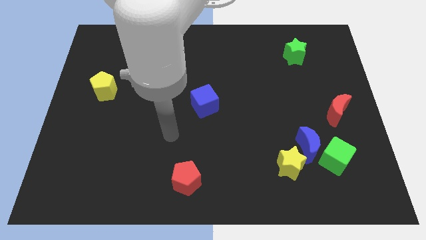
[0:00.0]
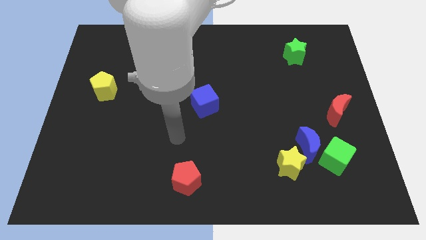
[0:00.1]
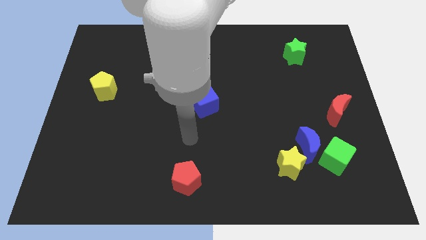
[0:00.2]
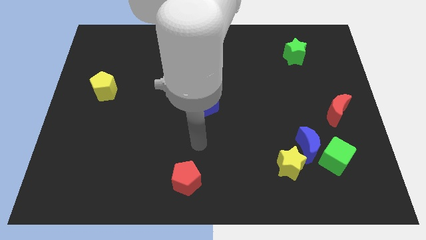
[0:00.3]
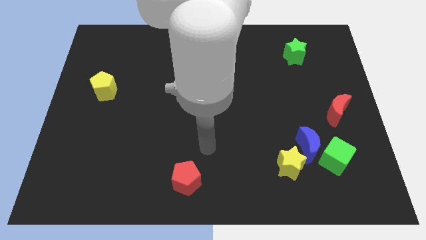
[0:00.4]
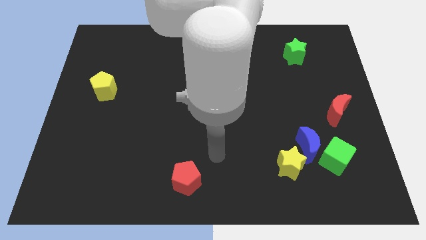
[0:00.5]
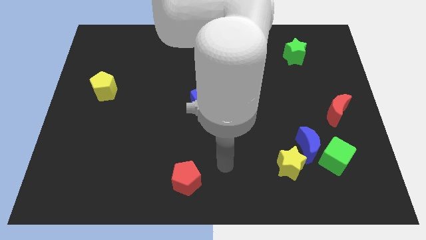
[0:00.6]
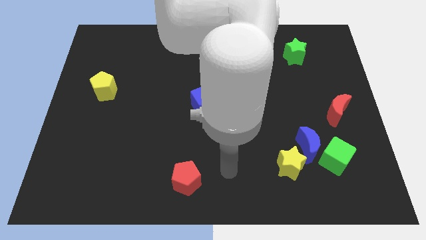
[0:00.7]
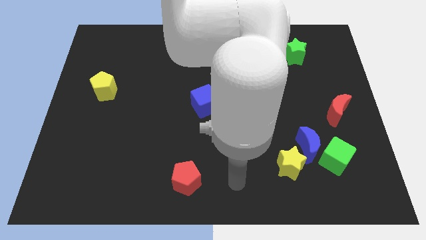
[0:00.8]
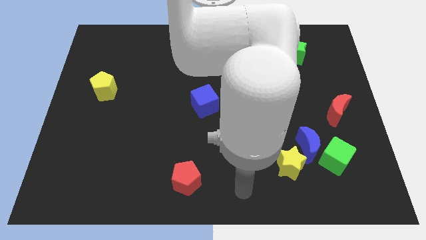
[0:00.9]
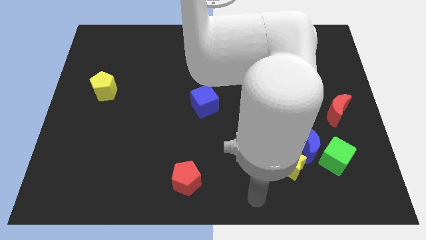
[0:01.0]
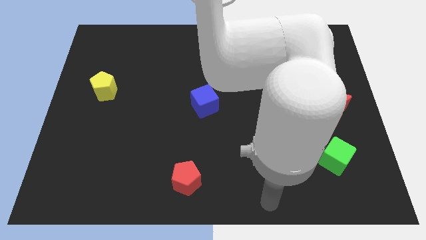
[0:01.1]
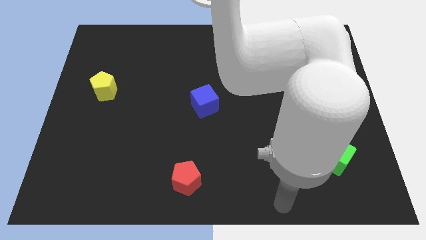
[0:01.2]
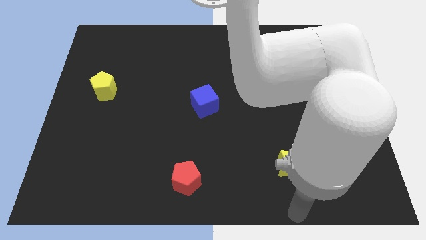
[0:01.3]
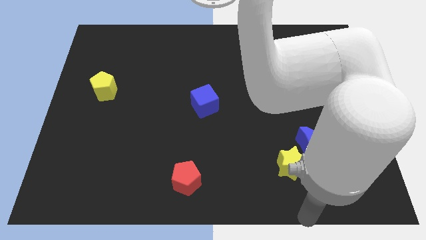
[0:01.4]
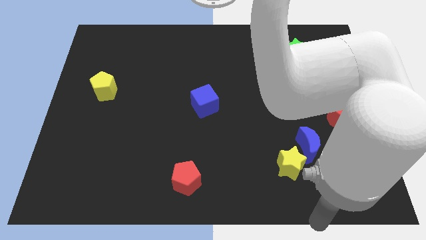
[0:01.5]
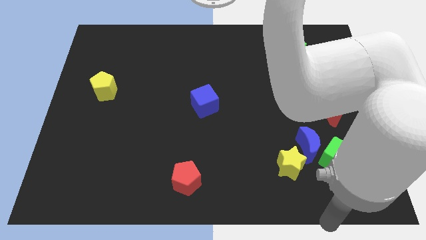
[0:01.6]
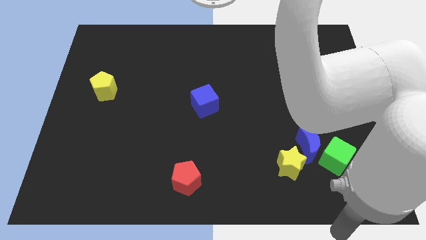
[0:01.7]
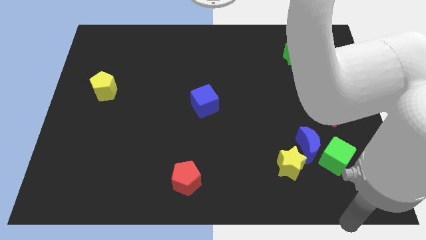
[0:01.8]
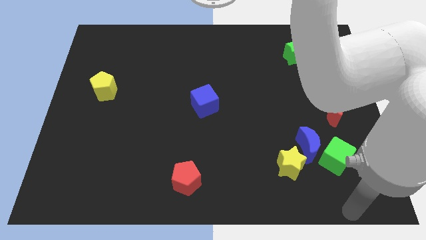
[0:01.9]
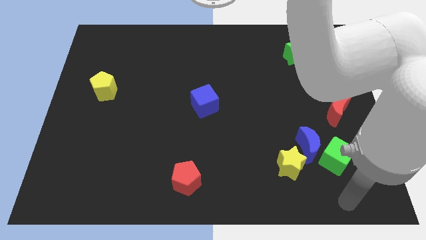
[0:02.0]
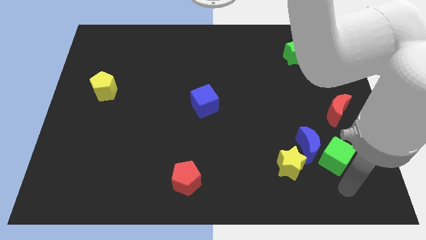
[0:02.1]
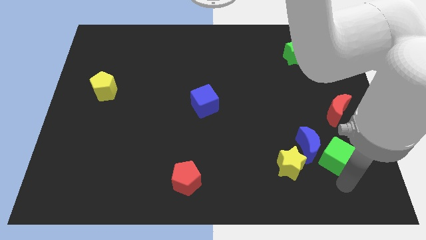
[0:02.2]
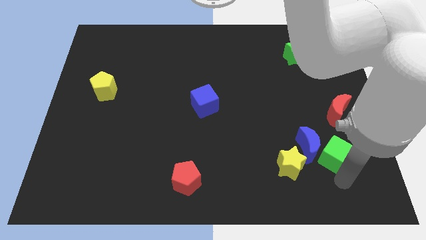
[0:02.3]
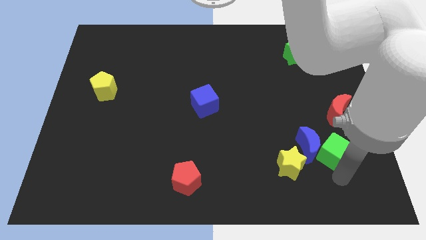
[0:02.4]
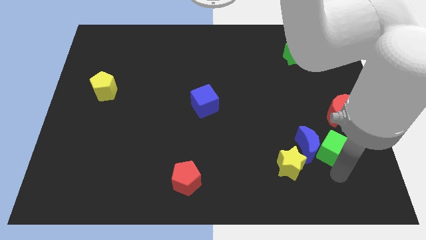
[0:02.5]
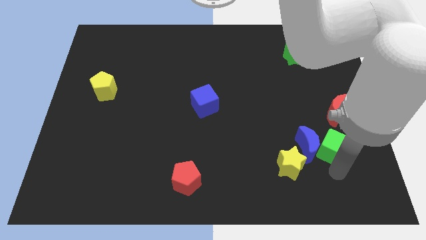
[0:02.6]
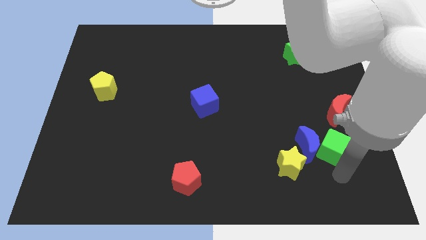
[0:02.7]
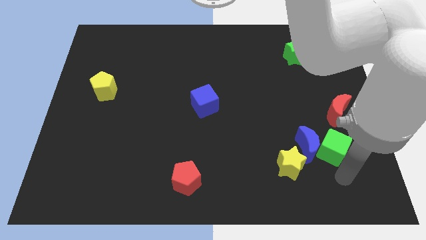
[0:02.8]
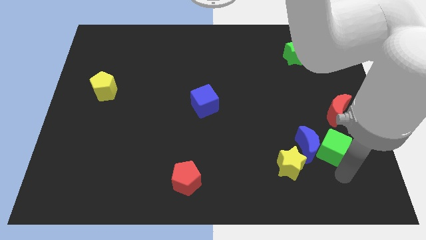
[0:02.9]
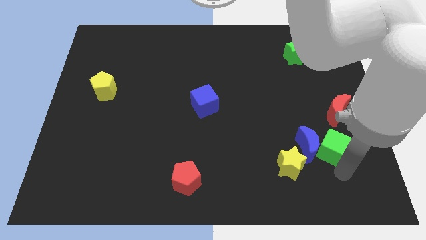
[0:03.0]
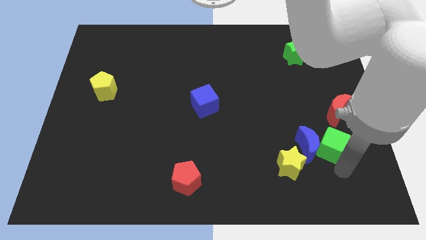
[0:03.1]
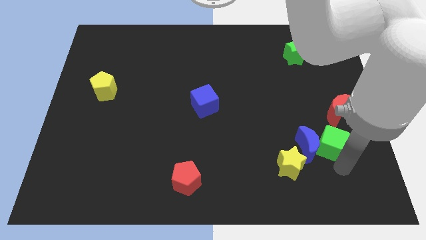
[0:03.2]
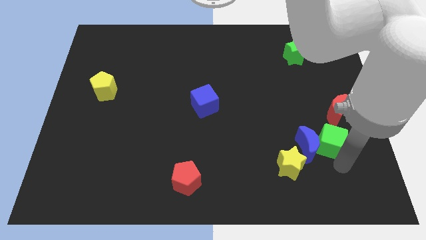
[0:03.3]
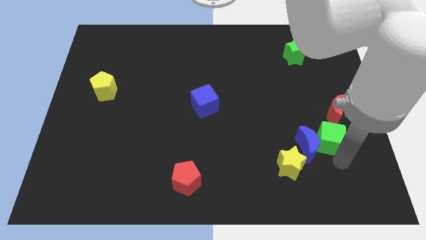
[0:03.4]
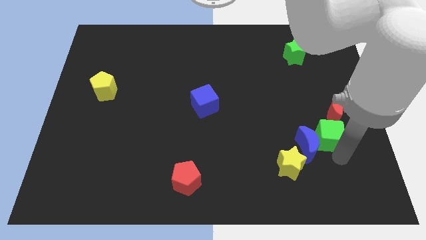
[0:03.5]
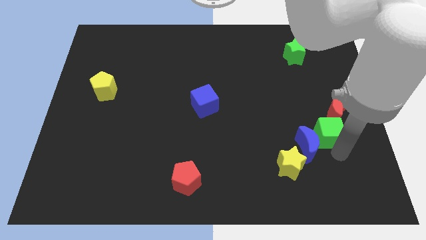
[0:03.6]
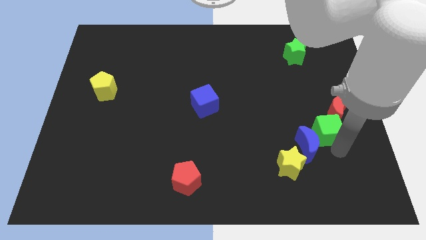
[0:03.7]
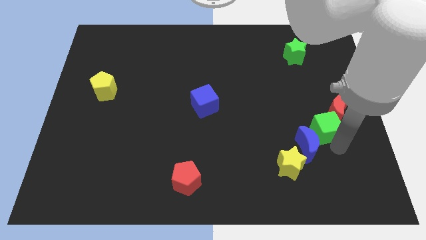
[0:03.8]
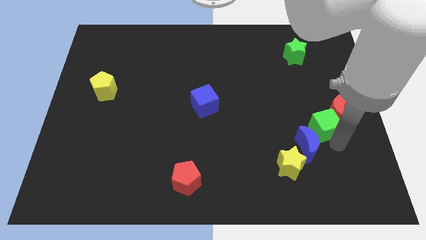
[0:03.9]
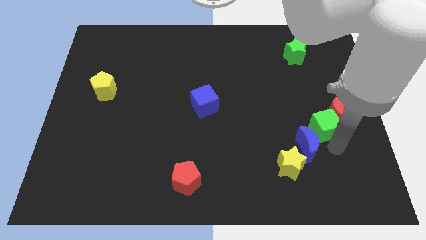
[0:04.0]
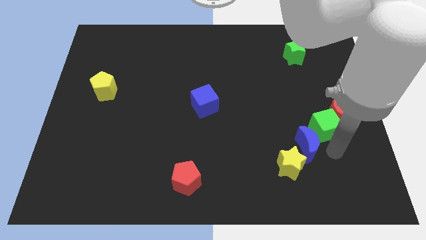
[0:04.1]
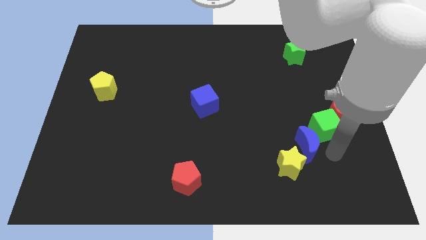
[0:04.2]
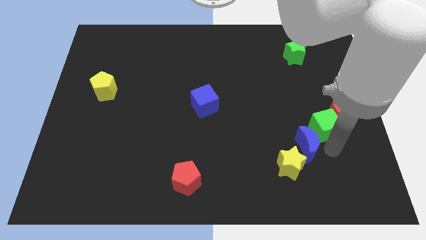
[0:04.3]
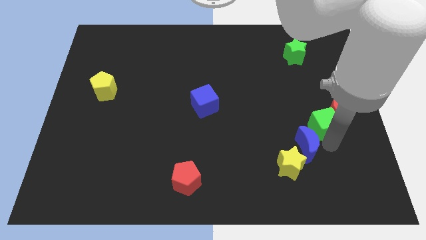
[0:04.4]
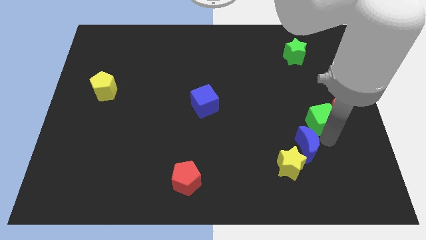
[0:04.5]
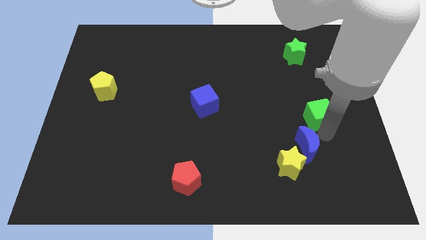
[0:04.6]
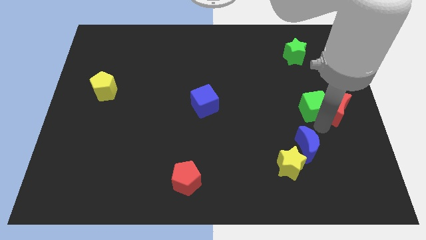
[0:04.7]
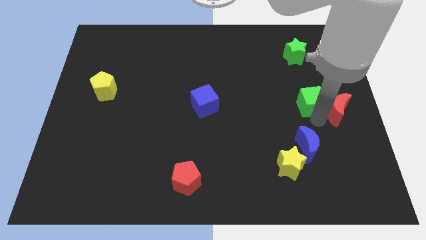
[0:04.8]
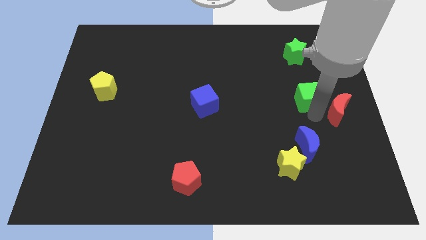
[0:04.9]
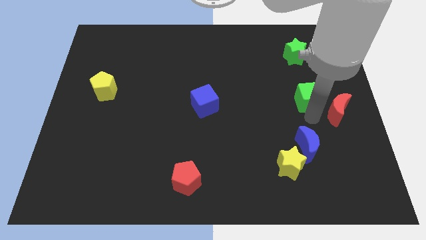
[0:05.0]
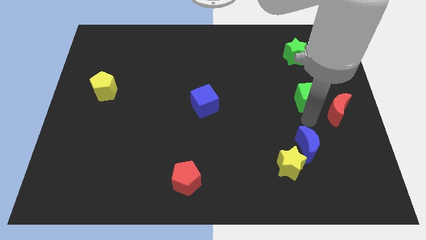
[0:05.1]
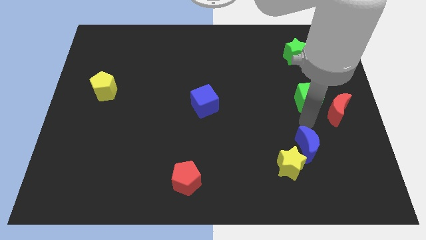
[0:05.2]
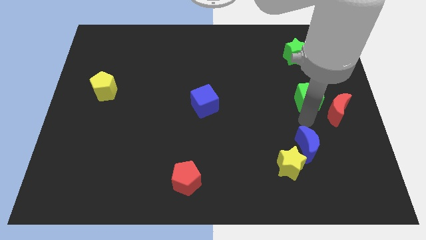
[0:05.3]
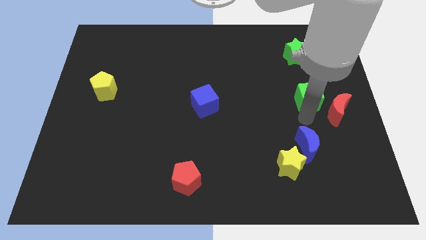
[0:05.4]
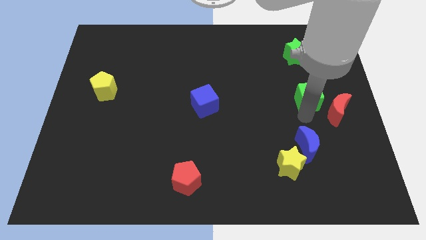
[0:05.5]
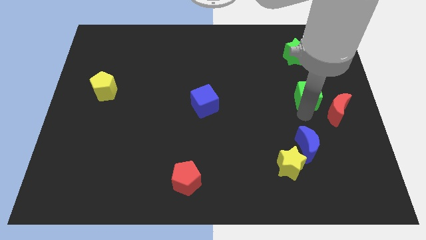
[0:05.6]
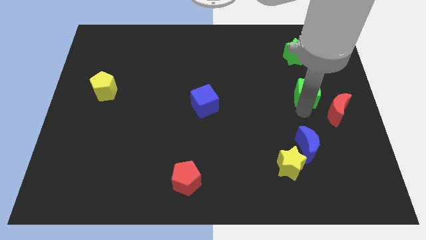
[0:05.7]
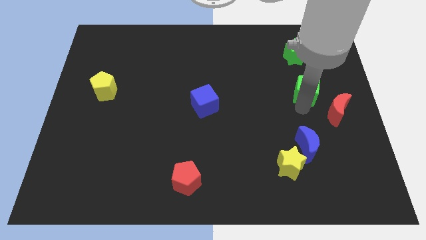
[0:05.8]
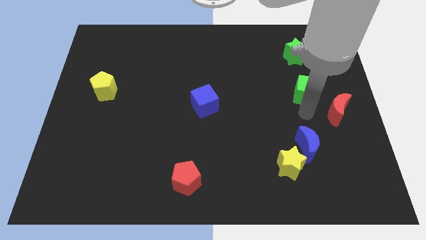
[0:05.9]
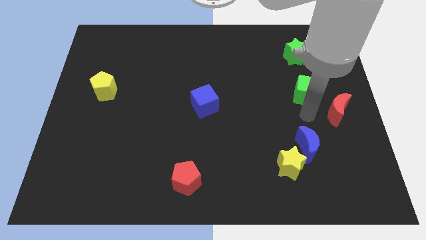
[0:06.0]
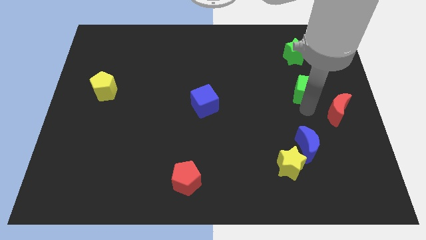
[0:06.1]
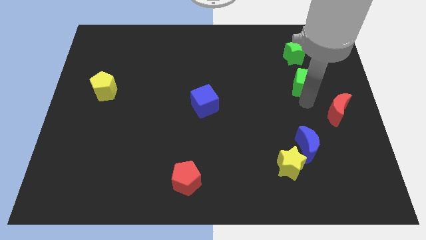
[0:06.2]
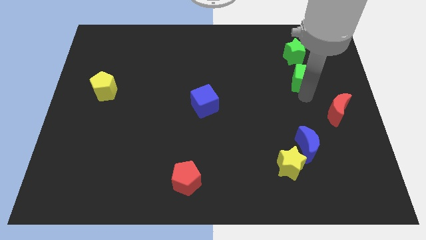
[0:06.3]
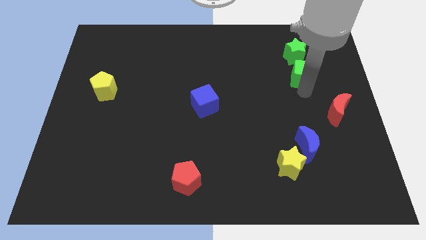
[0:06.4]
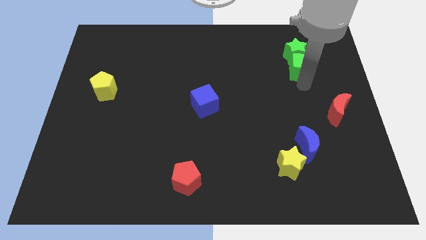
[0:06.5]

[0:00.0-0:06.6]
move the green cube towards the green star

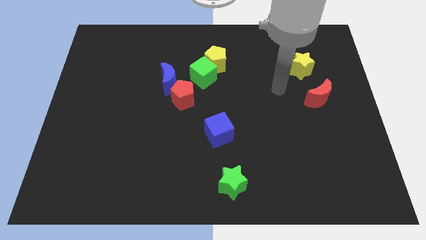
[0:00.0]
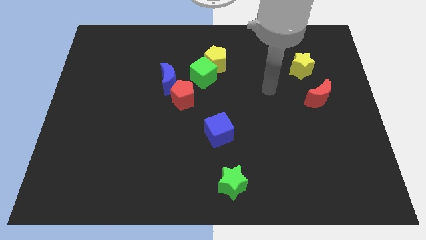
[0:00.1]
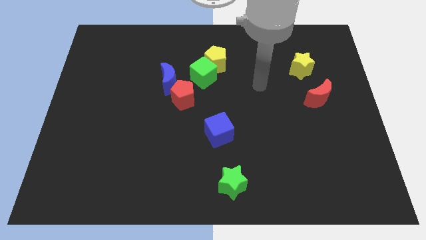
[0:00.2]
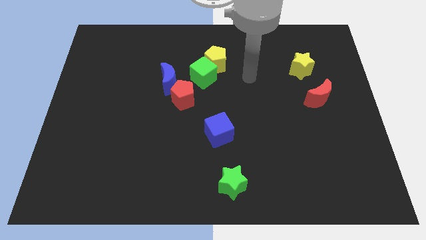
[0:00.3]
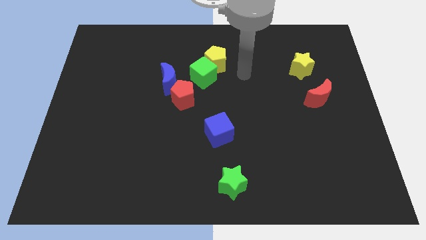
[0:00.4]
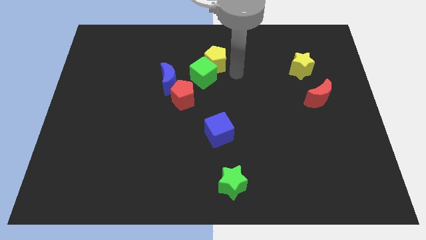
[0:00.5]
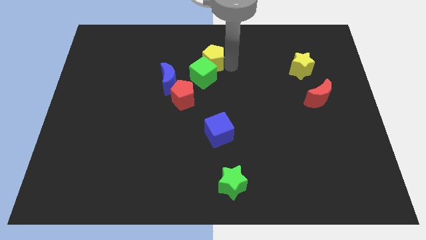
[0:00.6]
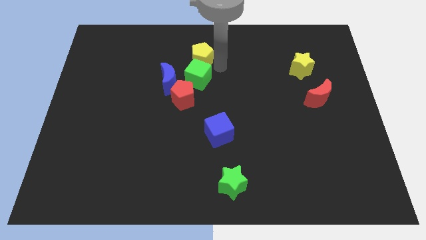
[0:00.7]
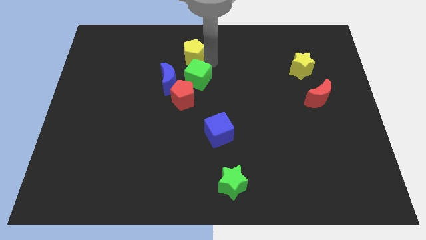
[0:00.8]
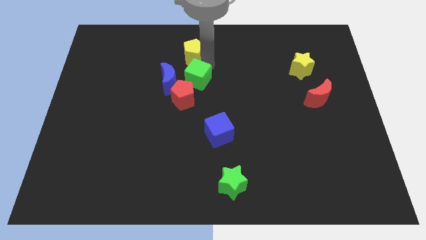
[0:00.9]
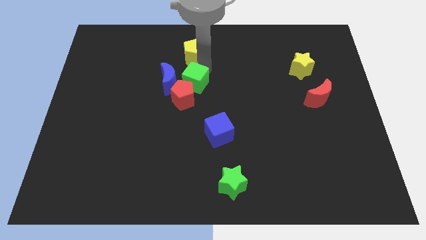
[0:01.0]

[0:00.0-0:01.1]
put the green cube towards the red pentagon
